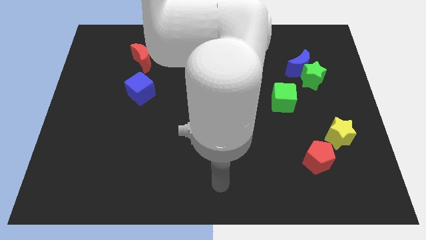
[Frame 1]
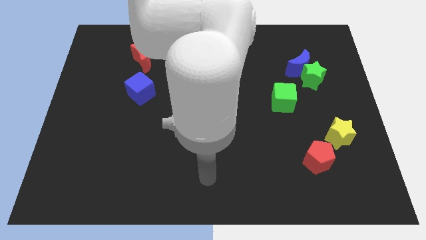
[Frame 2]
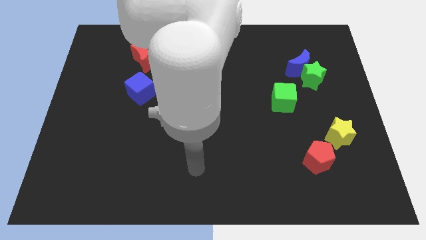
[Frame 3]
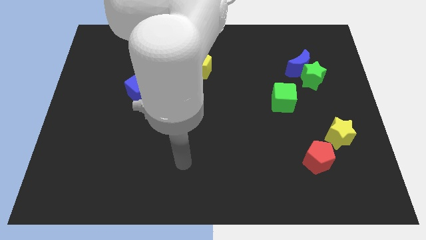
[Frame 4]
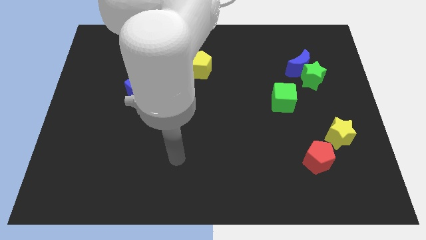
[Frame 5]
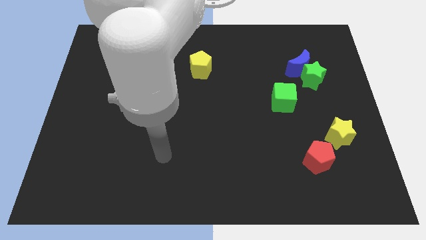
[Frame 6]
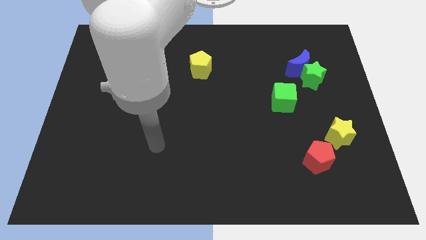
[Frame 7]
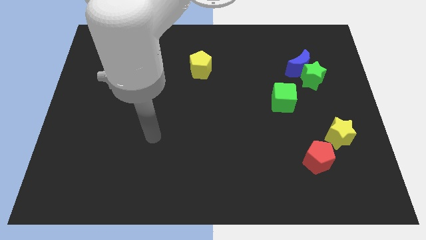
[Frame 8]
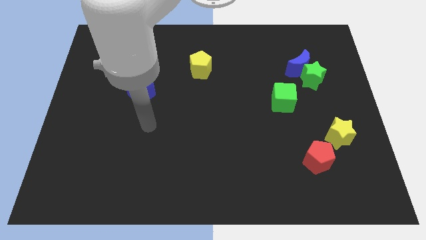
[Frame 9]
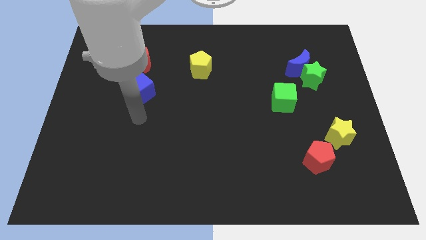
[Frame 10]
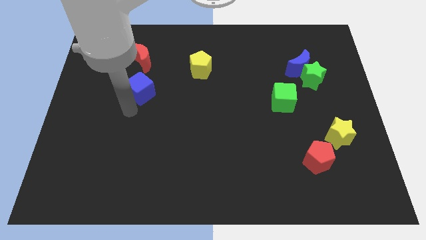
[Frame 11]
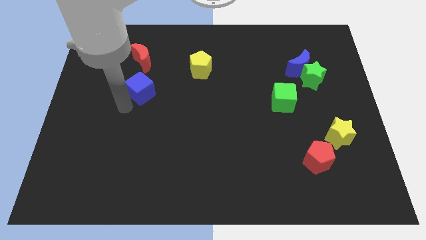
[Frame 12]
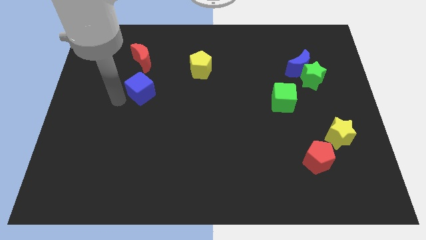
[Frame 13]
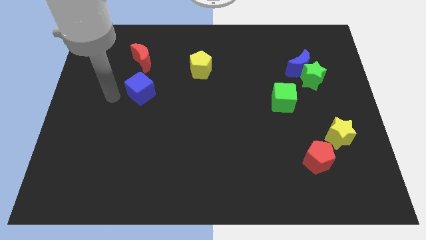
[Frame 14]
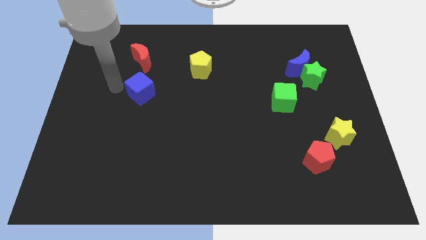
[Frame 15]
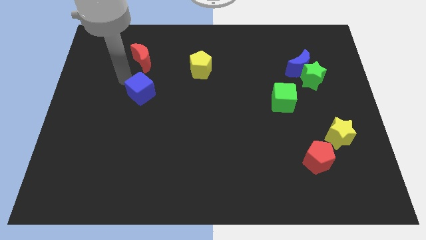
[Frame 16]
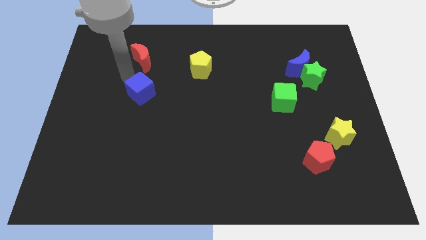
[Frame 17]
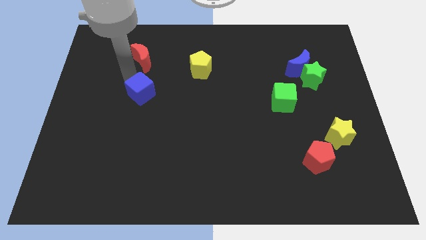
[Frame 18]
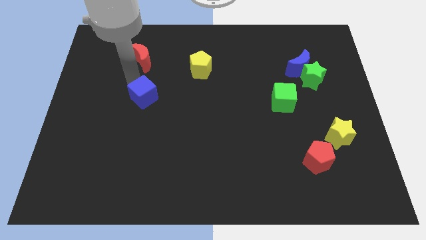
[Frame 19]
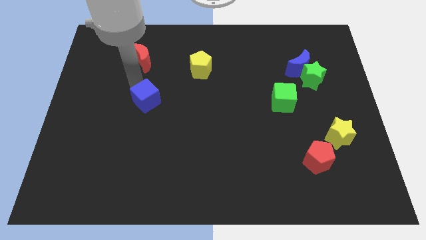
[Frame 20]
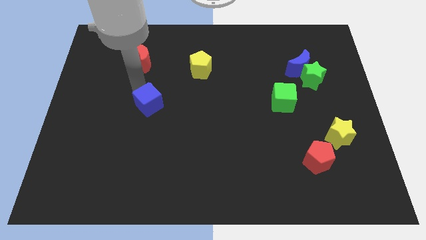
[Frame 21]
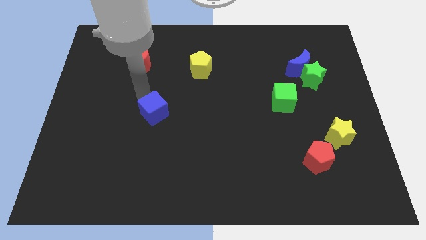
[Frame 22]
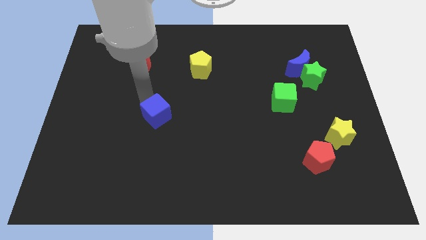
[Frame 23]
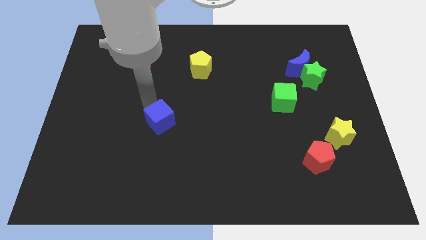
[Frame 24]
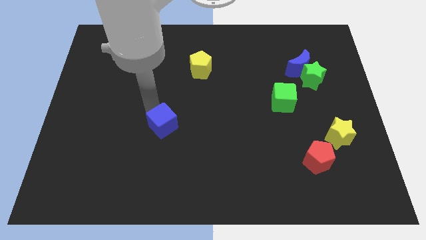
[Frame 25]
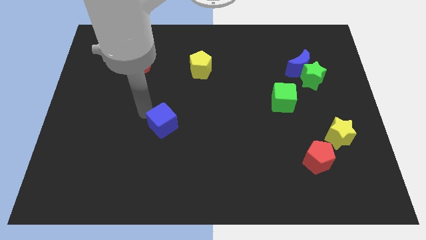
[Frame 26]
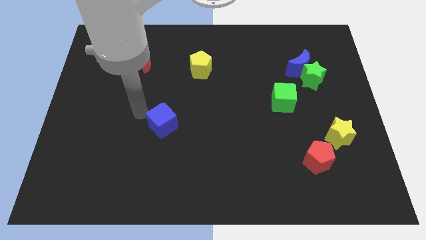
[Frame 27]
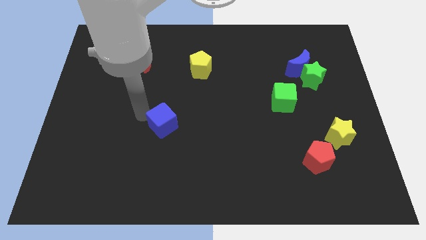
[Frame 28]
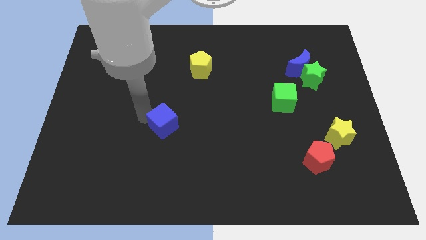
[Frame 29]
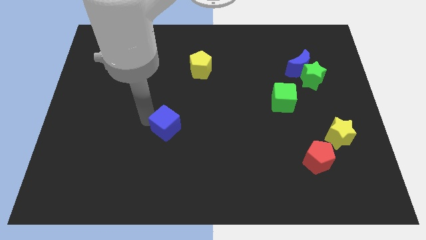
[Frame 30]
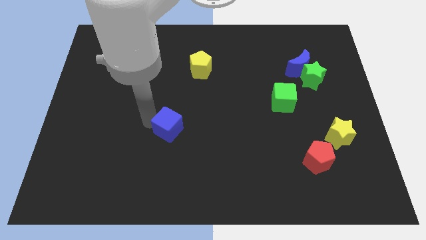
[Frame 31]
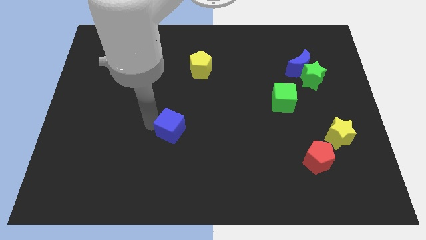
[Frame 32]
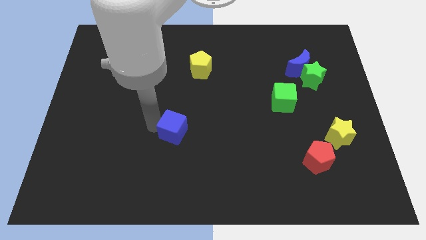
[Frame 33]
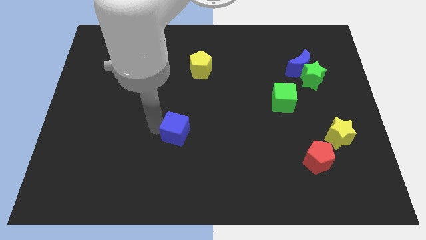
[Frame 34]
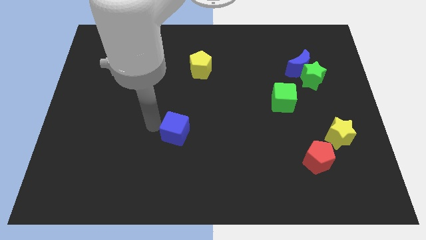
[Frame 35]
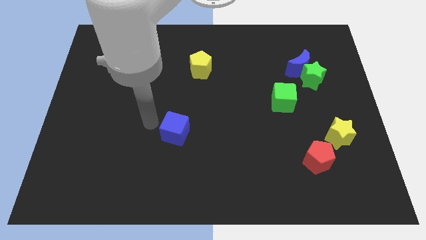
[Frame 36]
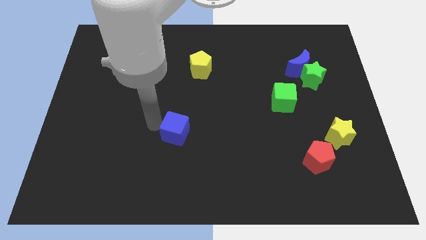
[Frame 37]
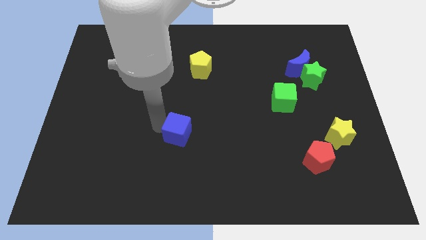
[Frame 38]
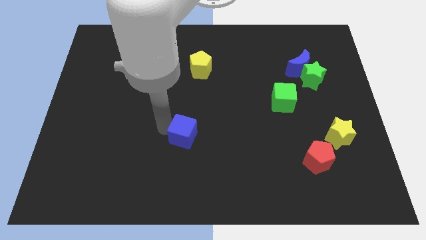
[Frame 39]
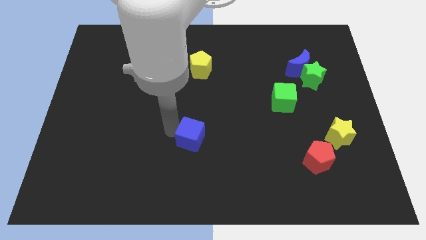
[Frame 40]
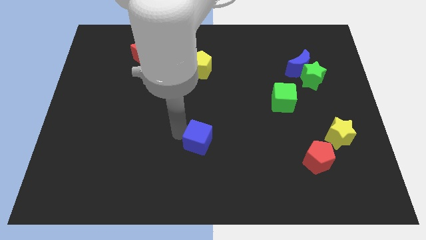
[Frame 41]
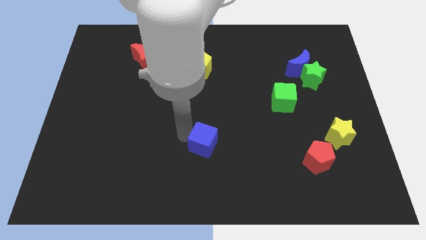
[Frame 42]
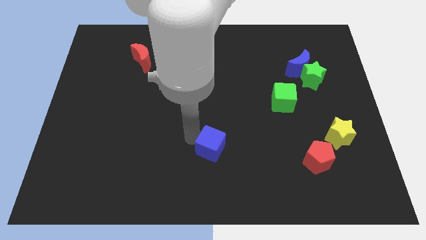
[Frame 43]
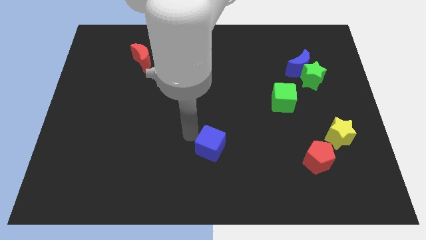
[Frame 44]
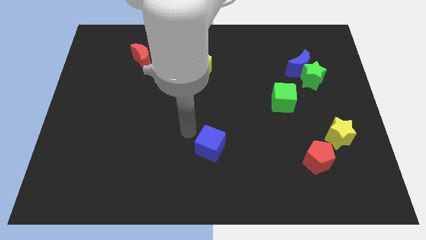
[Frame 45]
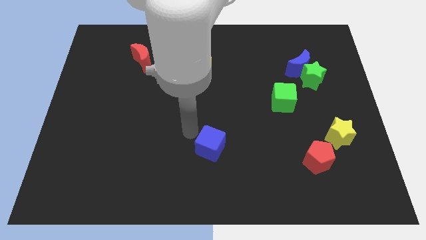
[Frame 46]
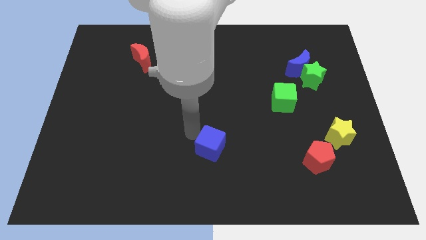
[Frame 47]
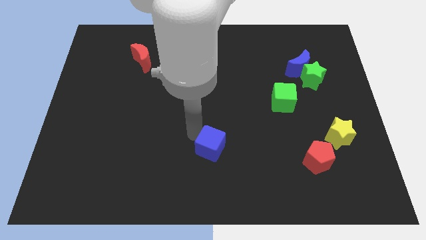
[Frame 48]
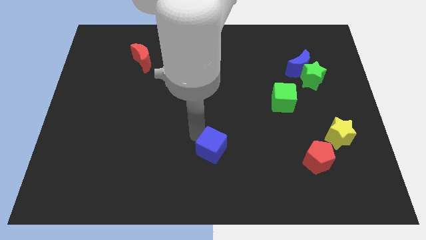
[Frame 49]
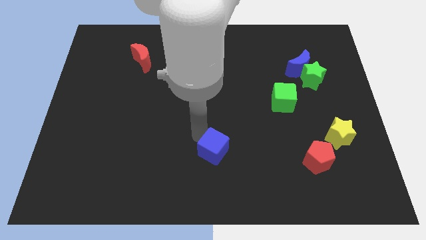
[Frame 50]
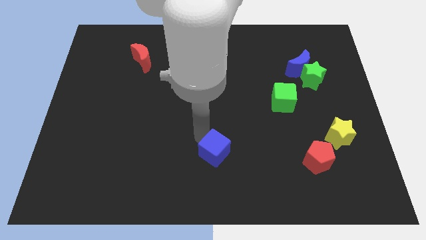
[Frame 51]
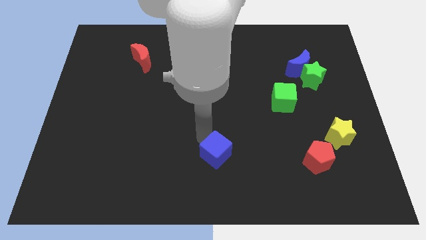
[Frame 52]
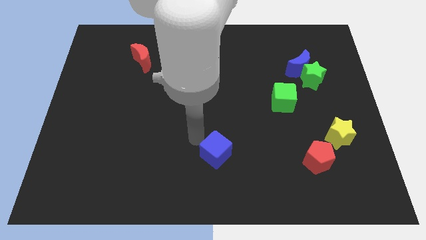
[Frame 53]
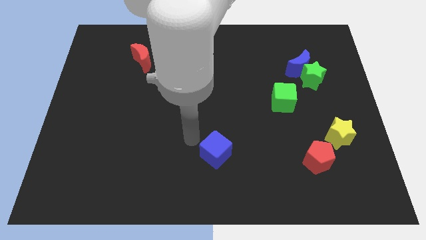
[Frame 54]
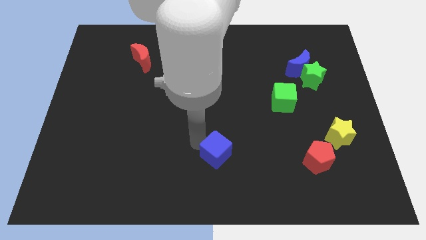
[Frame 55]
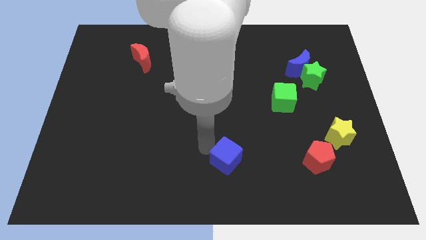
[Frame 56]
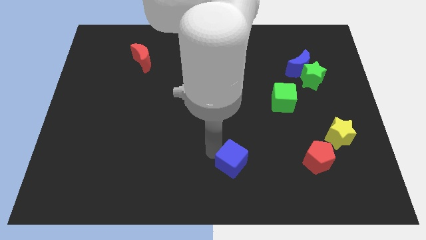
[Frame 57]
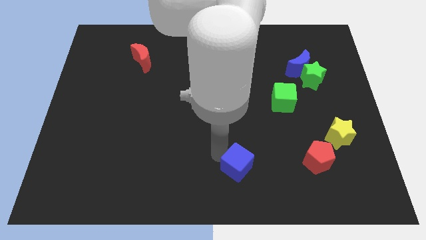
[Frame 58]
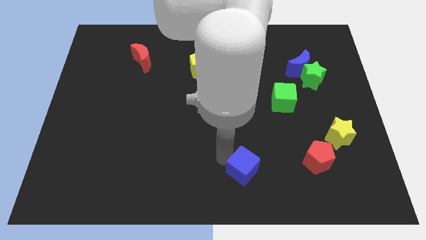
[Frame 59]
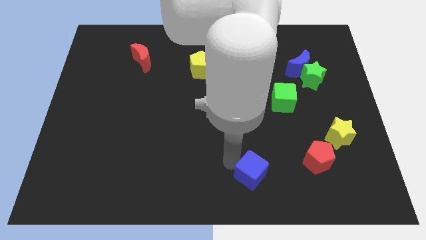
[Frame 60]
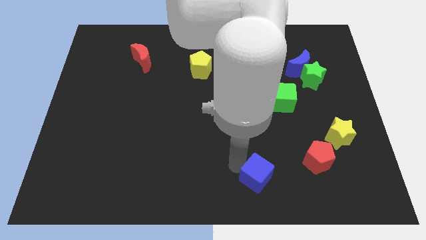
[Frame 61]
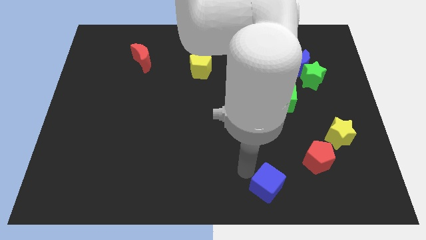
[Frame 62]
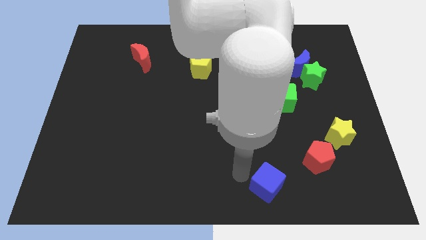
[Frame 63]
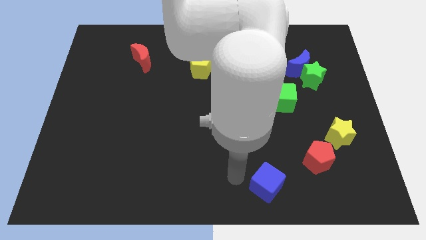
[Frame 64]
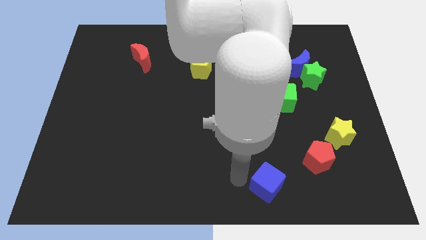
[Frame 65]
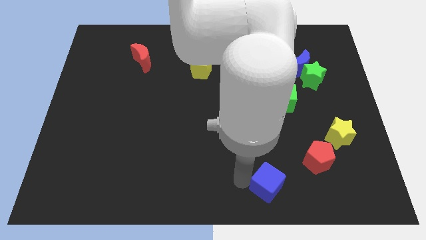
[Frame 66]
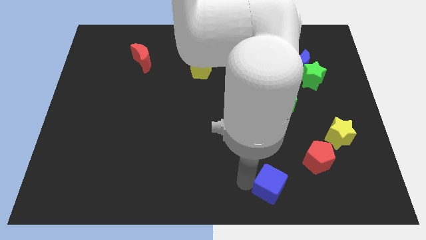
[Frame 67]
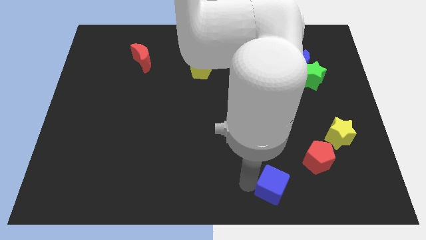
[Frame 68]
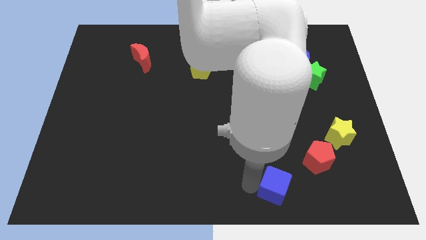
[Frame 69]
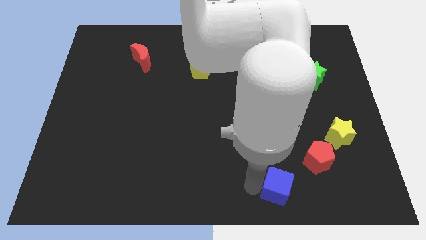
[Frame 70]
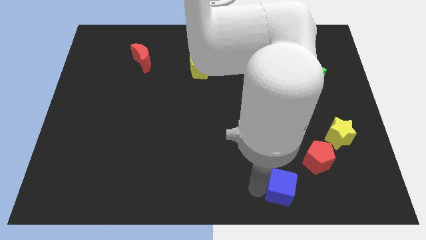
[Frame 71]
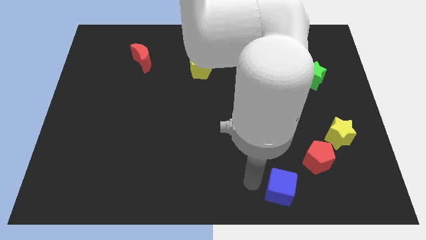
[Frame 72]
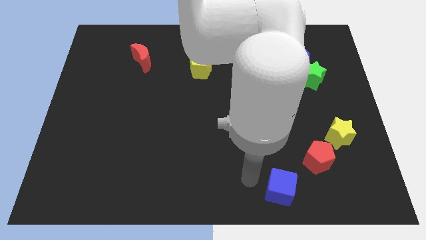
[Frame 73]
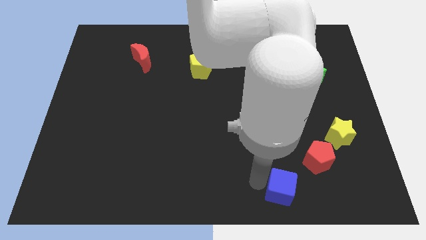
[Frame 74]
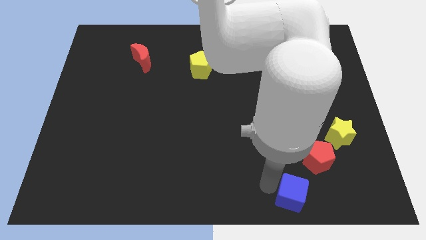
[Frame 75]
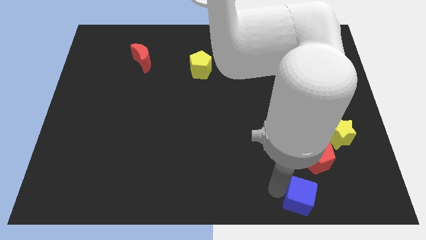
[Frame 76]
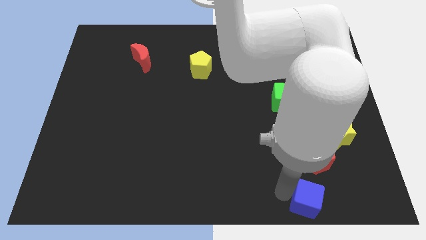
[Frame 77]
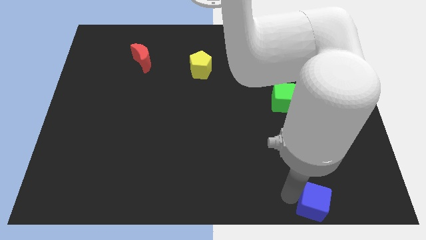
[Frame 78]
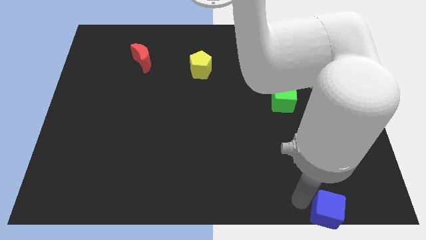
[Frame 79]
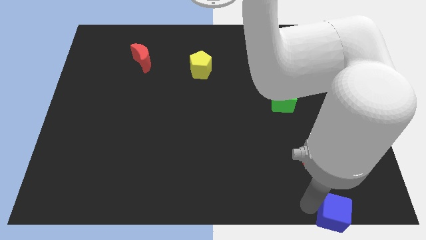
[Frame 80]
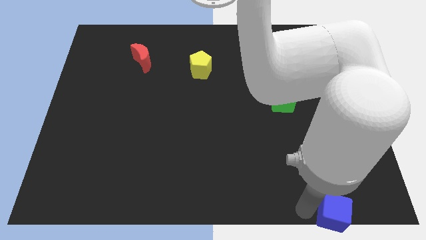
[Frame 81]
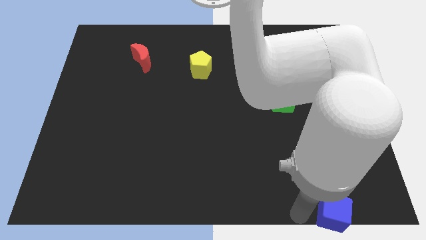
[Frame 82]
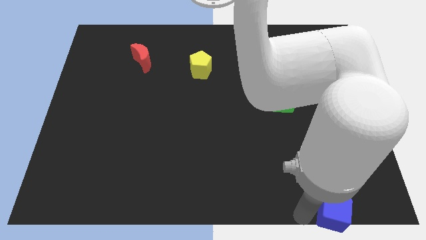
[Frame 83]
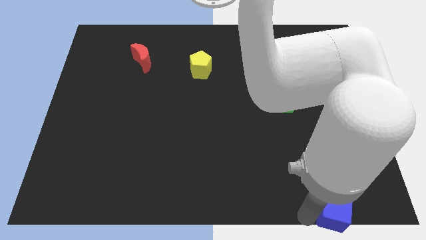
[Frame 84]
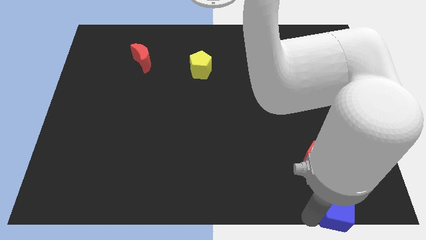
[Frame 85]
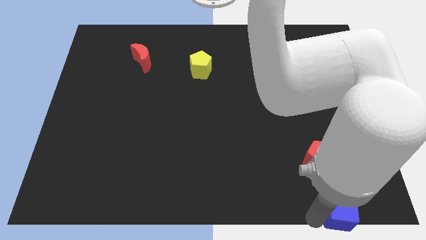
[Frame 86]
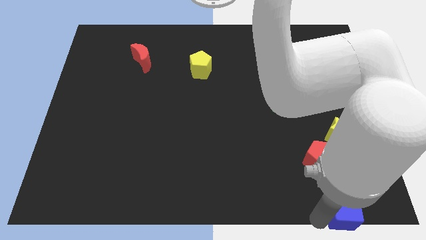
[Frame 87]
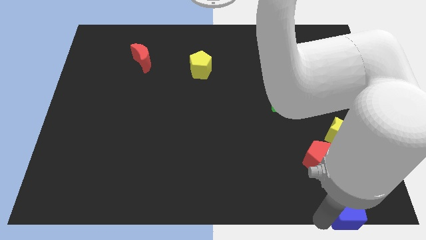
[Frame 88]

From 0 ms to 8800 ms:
push the blue cube to the lower right corner
